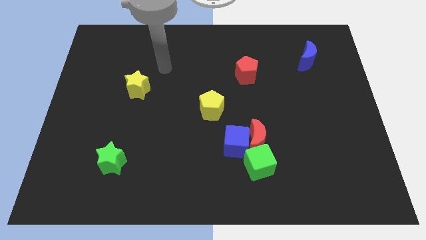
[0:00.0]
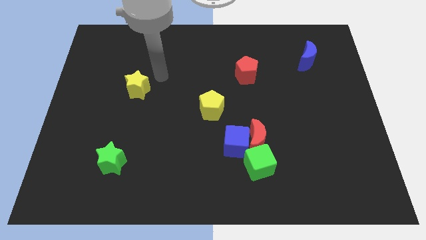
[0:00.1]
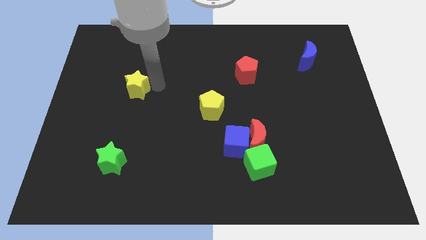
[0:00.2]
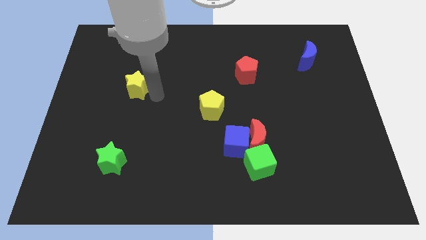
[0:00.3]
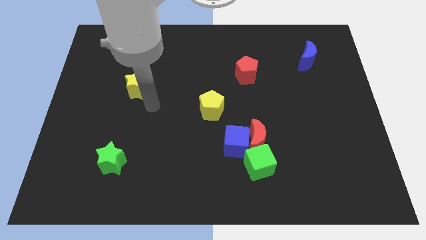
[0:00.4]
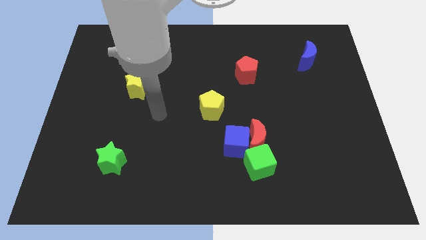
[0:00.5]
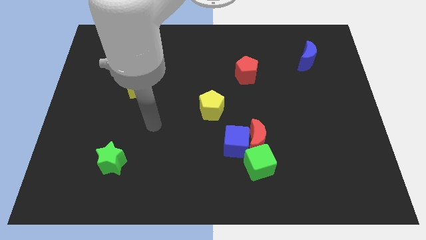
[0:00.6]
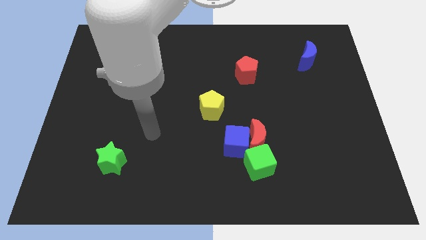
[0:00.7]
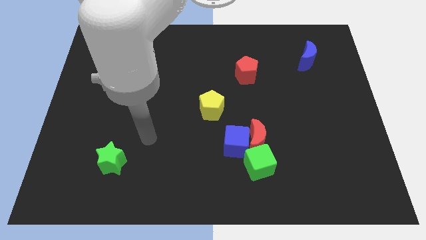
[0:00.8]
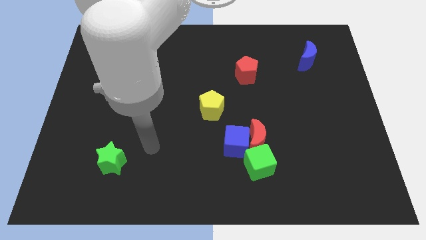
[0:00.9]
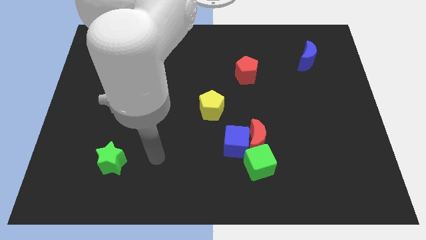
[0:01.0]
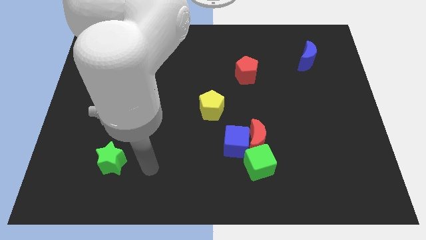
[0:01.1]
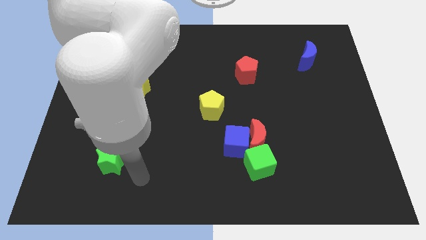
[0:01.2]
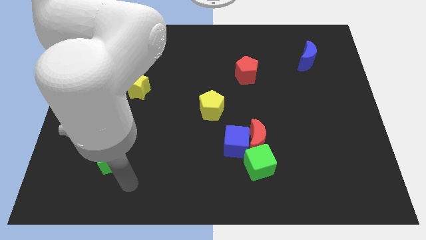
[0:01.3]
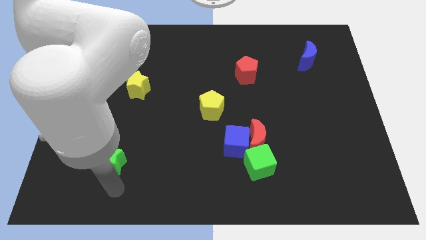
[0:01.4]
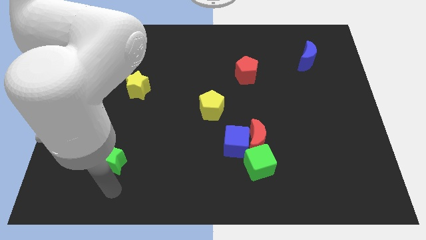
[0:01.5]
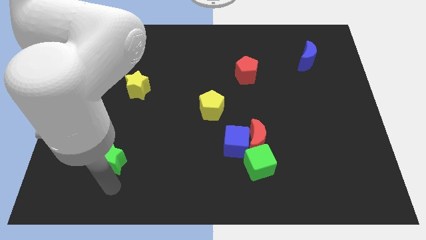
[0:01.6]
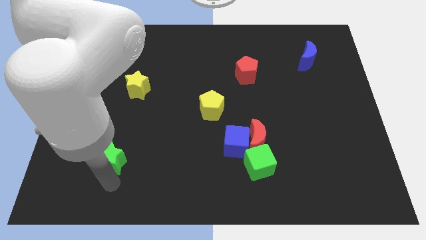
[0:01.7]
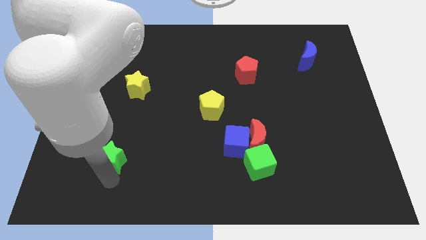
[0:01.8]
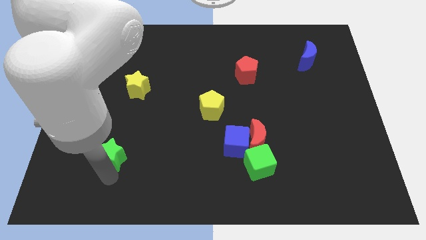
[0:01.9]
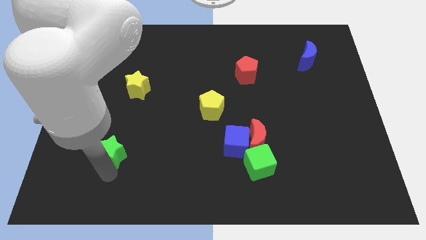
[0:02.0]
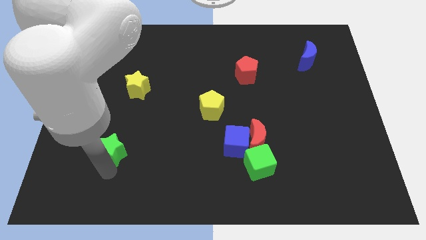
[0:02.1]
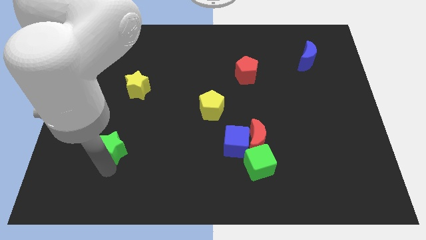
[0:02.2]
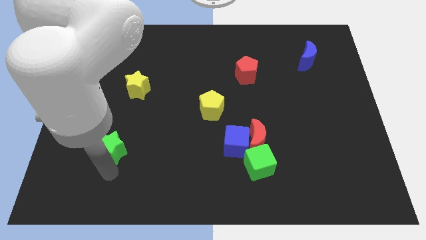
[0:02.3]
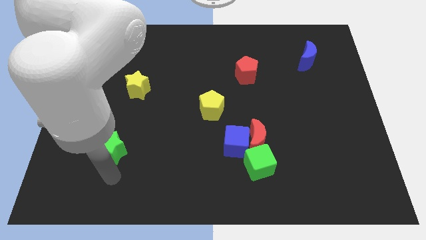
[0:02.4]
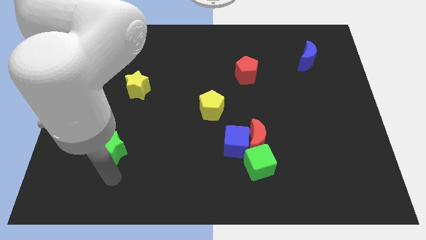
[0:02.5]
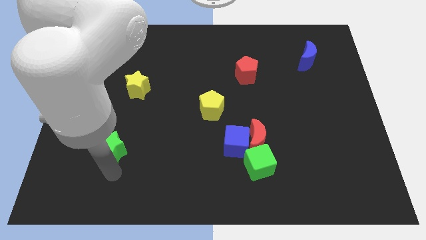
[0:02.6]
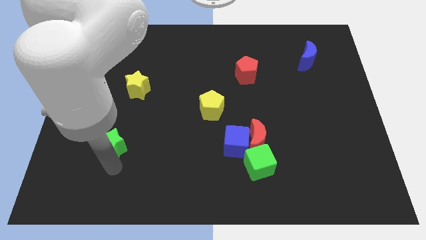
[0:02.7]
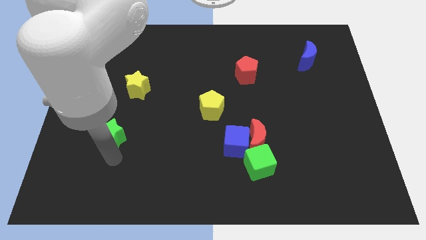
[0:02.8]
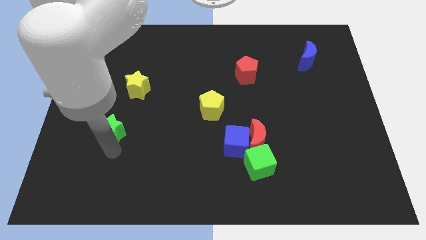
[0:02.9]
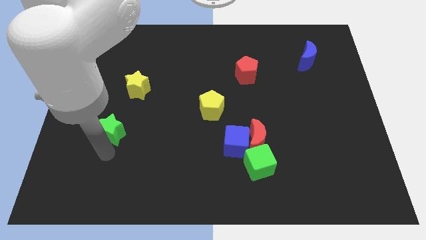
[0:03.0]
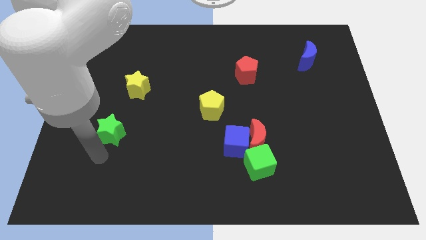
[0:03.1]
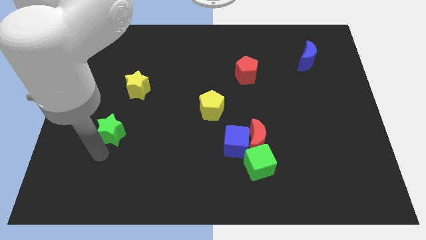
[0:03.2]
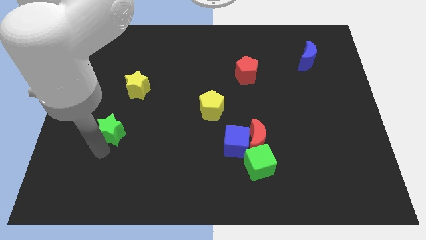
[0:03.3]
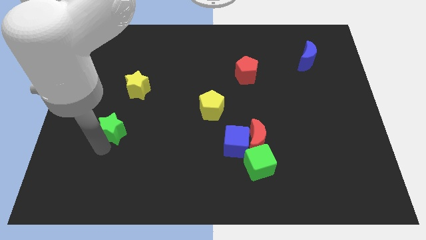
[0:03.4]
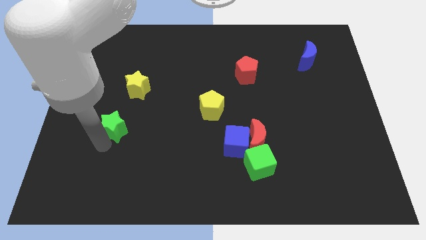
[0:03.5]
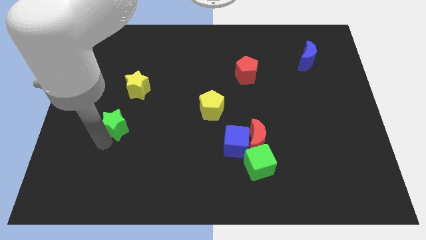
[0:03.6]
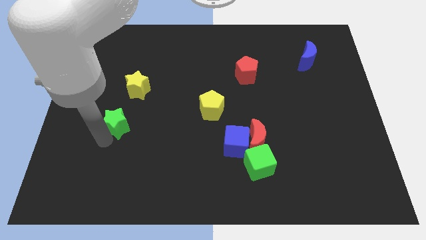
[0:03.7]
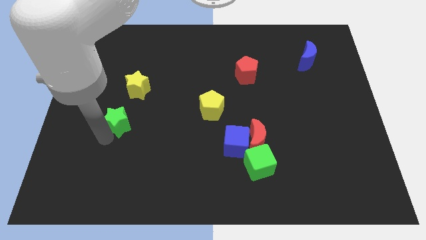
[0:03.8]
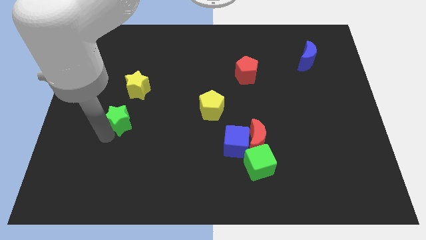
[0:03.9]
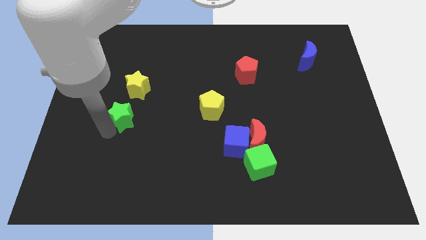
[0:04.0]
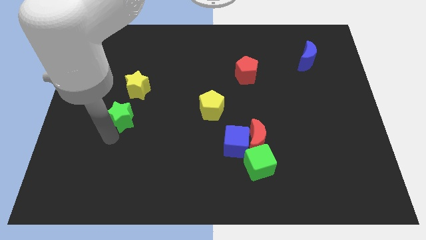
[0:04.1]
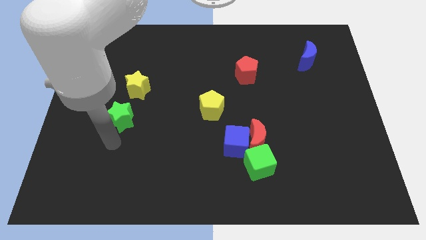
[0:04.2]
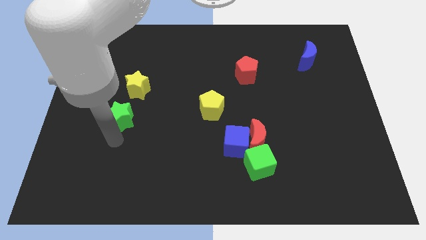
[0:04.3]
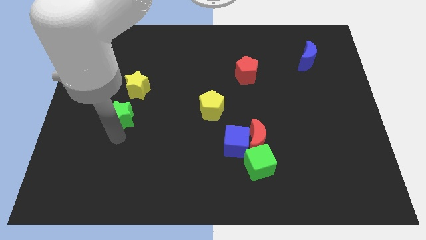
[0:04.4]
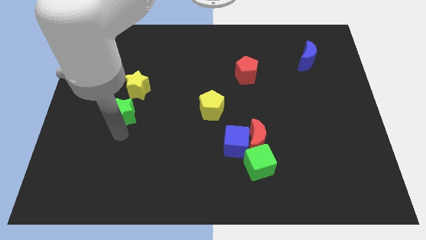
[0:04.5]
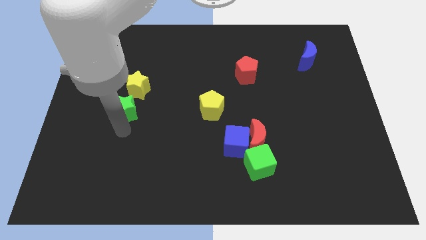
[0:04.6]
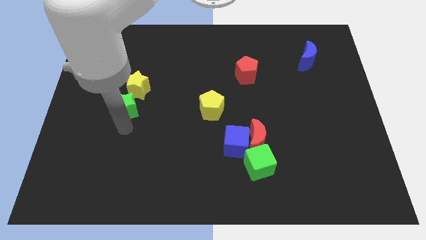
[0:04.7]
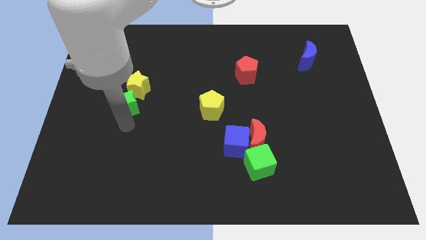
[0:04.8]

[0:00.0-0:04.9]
move the green star towards the yellow star

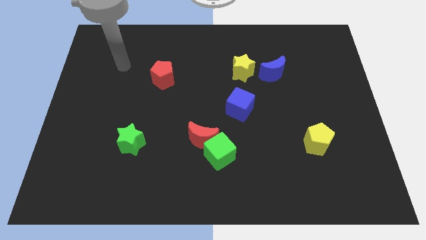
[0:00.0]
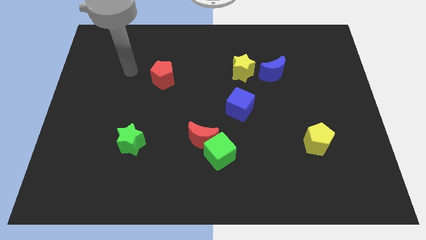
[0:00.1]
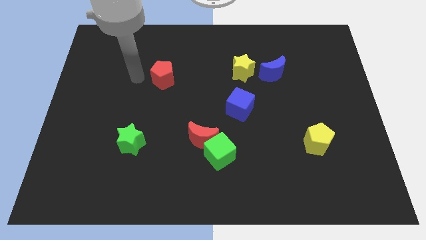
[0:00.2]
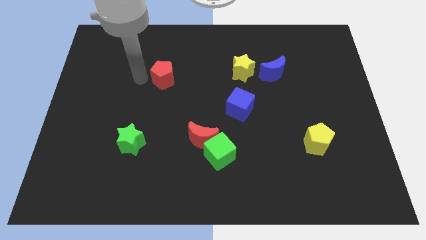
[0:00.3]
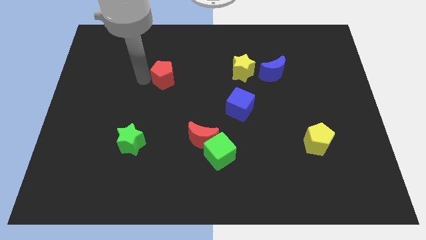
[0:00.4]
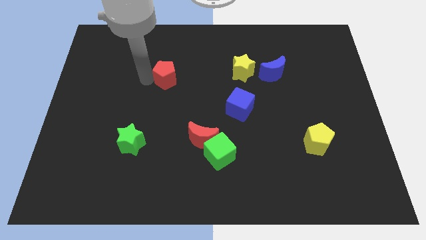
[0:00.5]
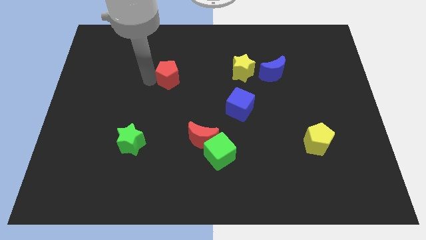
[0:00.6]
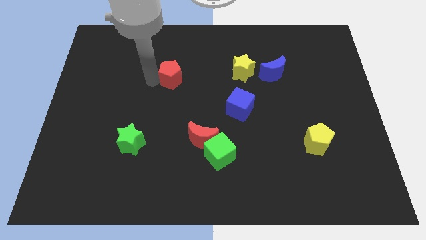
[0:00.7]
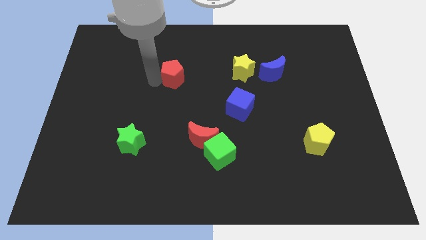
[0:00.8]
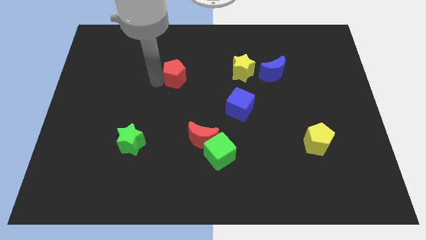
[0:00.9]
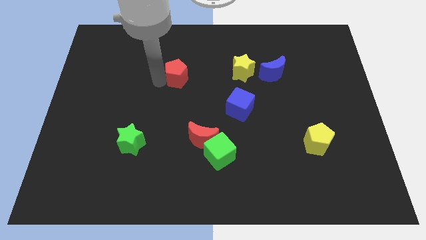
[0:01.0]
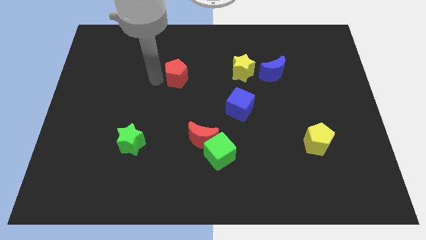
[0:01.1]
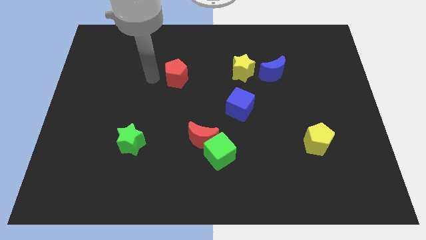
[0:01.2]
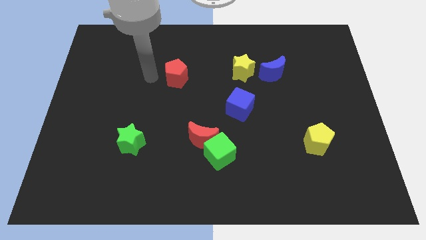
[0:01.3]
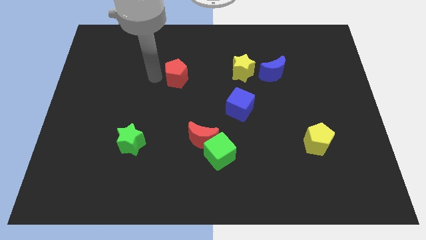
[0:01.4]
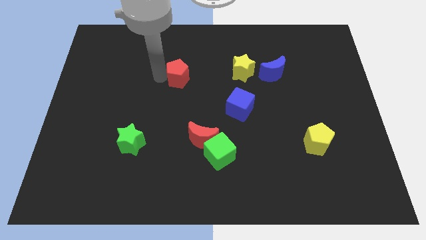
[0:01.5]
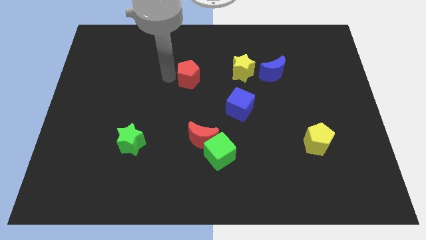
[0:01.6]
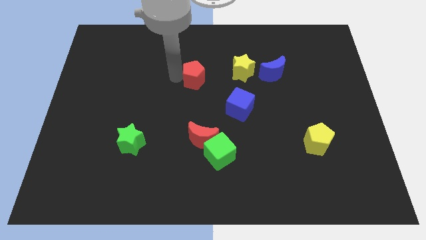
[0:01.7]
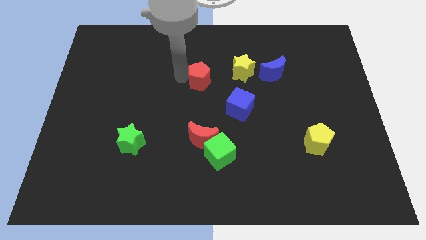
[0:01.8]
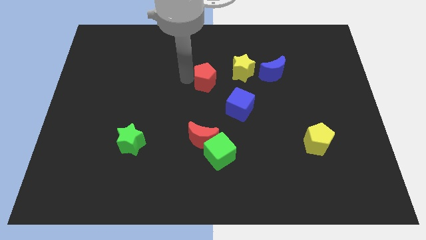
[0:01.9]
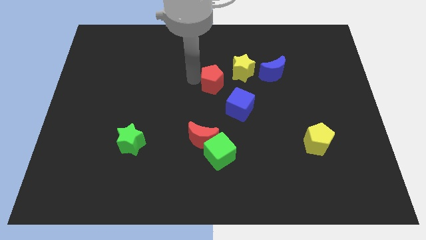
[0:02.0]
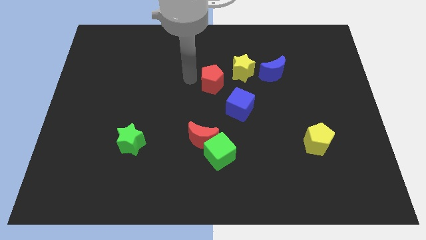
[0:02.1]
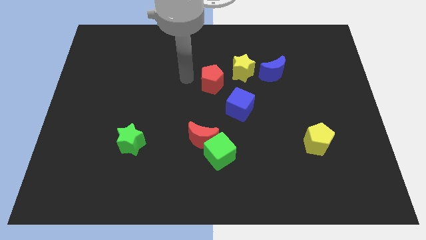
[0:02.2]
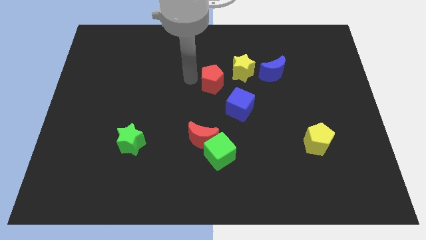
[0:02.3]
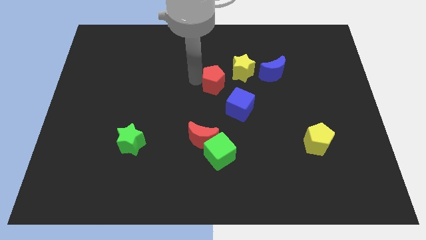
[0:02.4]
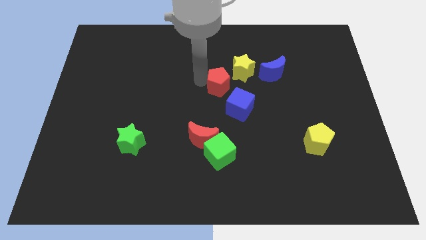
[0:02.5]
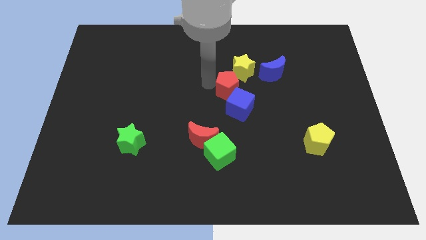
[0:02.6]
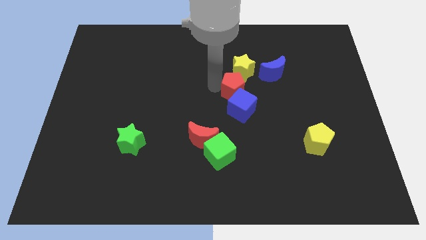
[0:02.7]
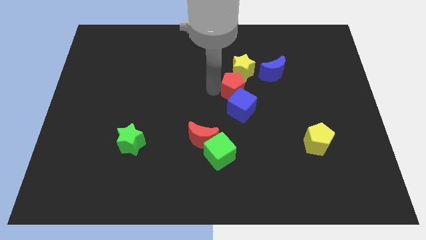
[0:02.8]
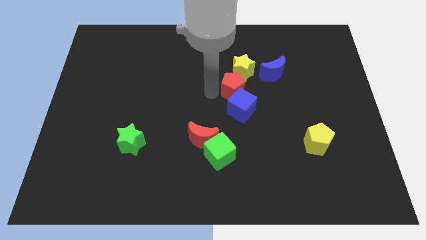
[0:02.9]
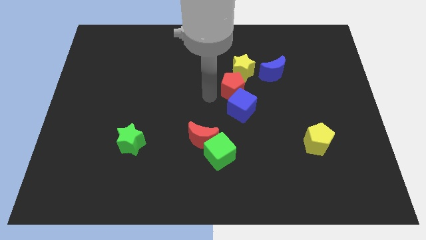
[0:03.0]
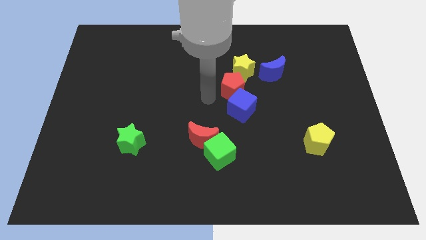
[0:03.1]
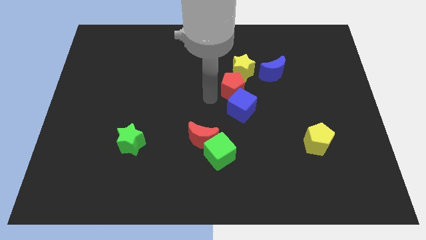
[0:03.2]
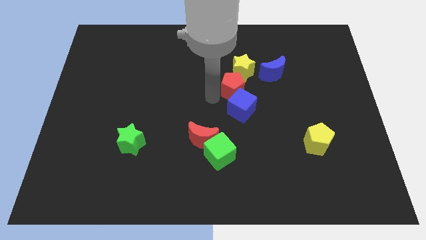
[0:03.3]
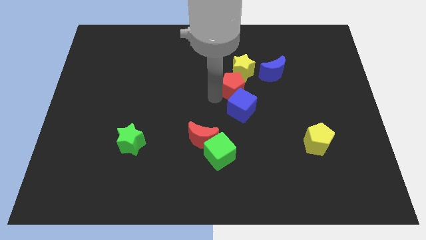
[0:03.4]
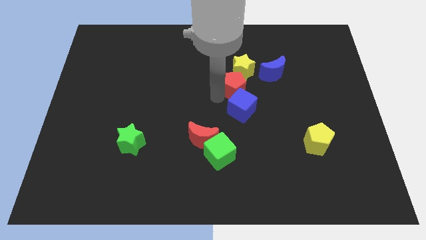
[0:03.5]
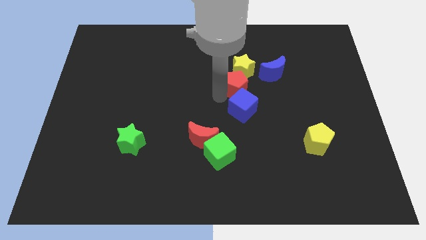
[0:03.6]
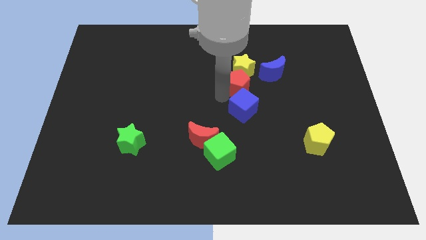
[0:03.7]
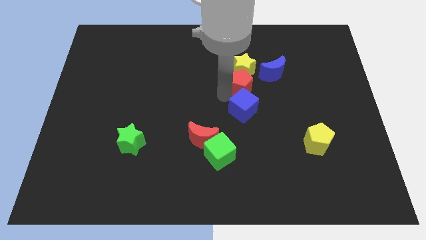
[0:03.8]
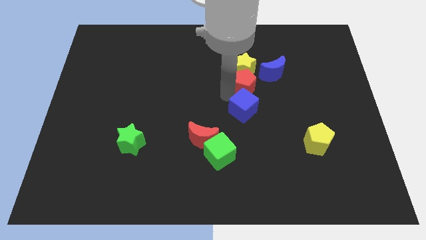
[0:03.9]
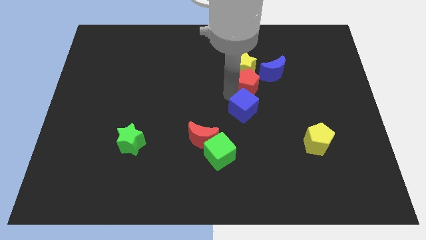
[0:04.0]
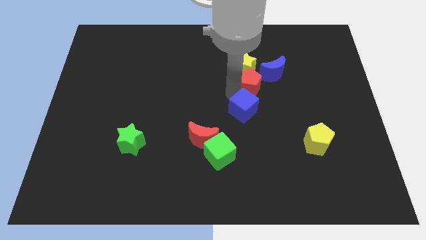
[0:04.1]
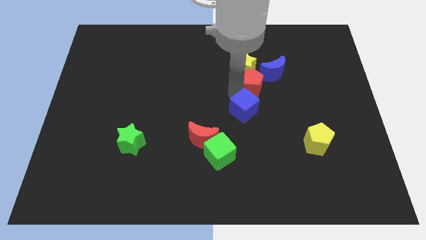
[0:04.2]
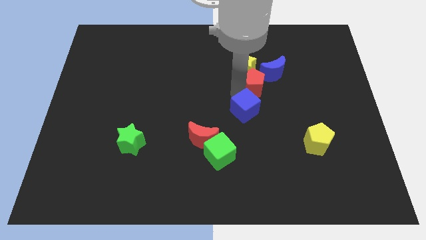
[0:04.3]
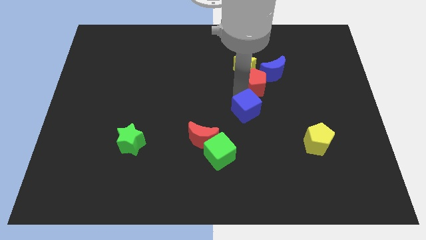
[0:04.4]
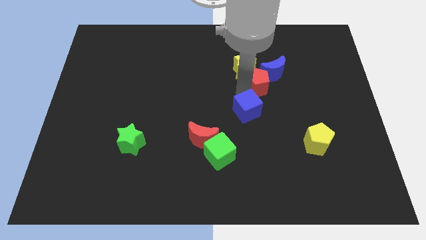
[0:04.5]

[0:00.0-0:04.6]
slide the red pentagon to the blue moon
